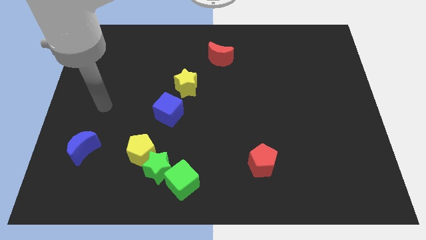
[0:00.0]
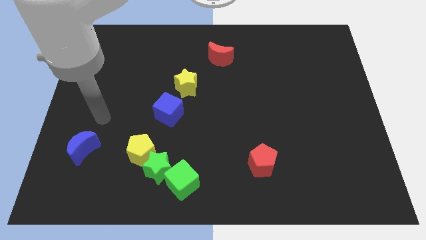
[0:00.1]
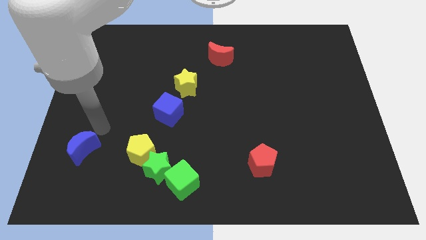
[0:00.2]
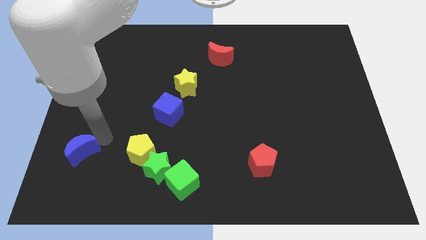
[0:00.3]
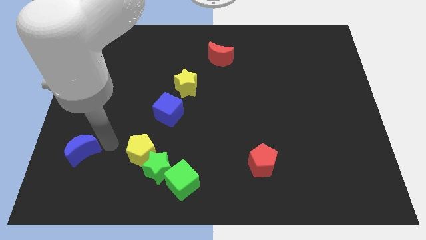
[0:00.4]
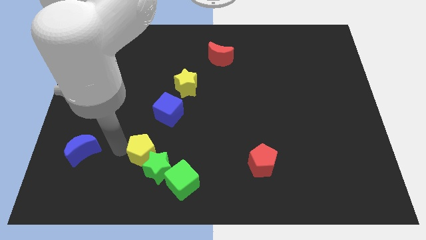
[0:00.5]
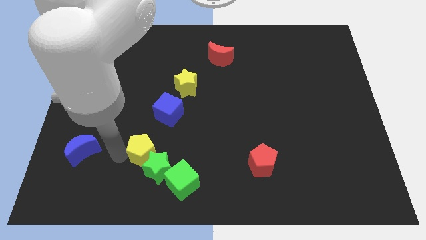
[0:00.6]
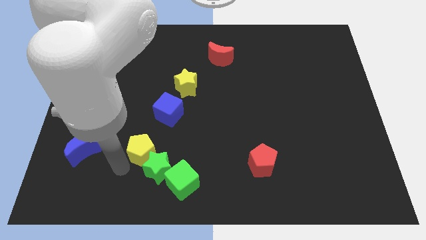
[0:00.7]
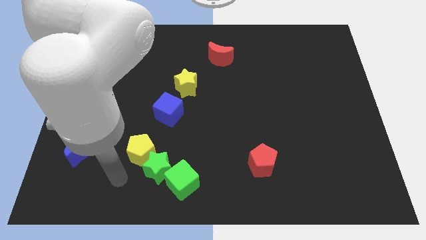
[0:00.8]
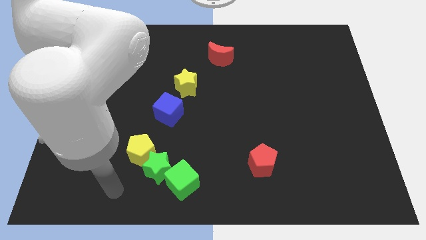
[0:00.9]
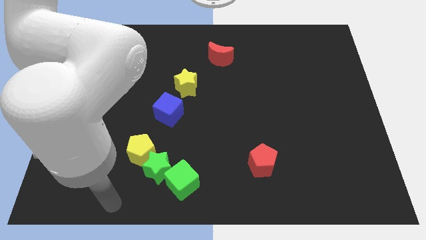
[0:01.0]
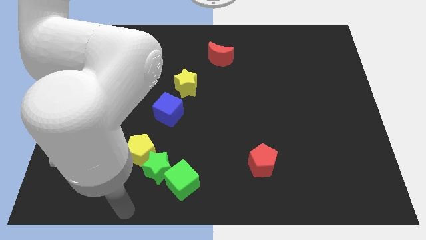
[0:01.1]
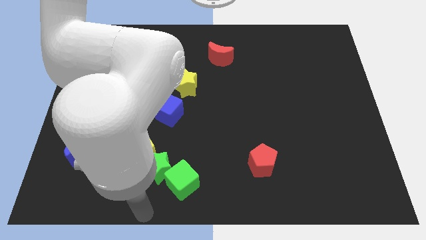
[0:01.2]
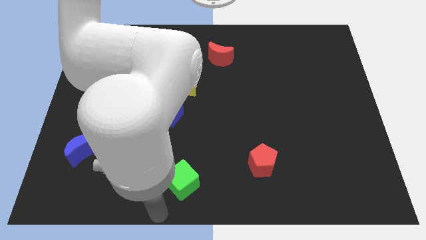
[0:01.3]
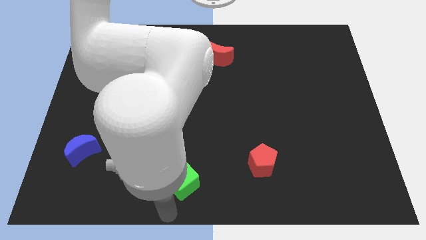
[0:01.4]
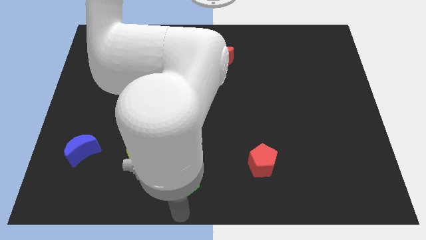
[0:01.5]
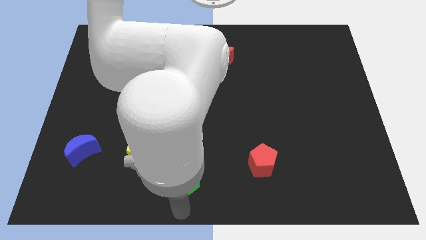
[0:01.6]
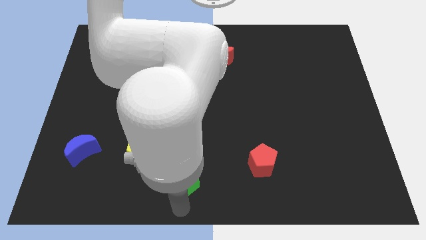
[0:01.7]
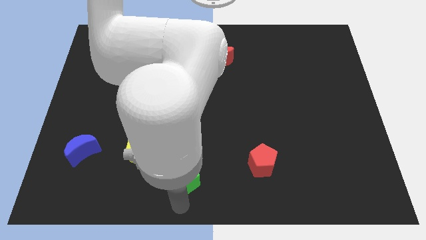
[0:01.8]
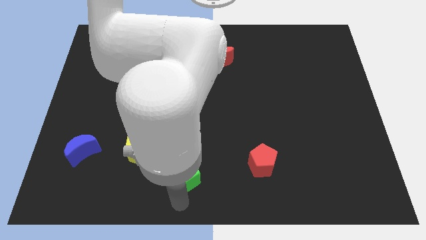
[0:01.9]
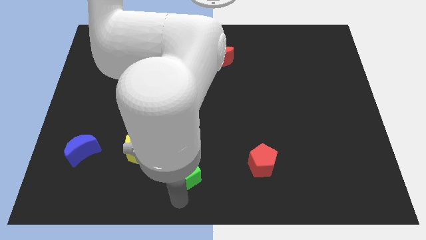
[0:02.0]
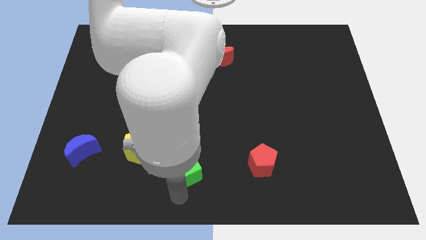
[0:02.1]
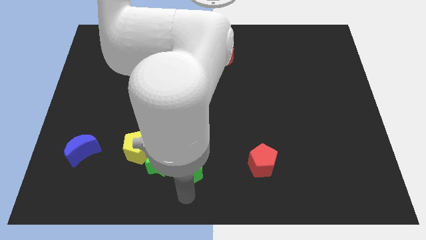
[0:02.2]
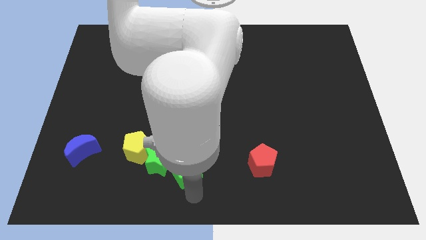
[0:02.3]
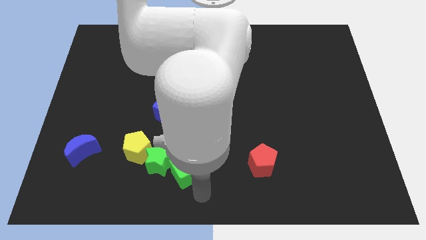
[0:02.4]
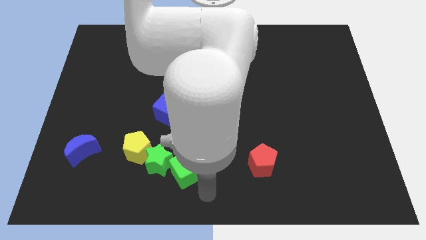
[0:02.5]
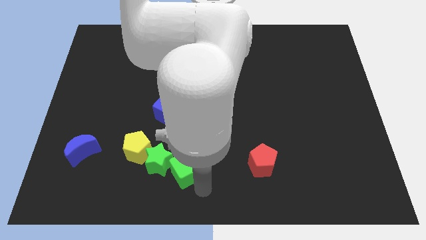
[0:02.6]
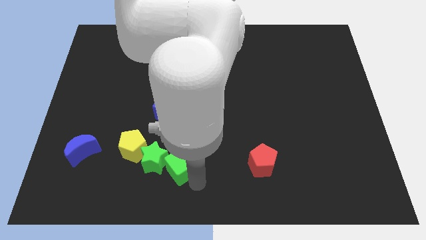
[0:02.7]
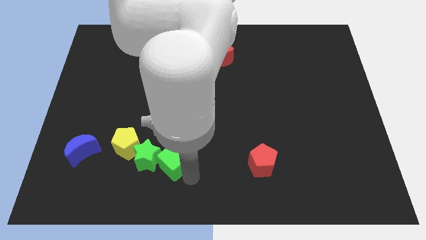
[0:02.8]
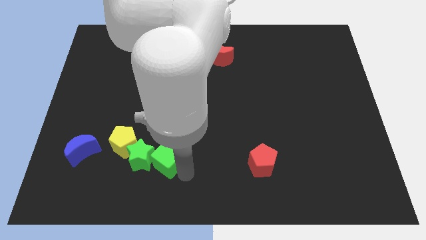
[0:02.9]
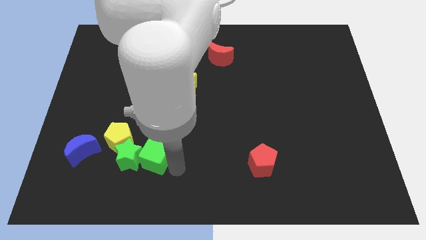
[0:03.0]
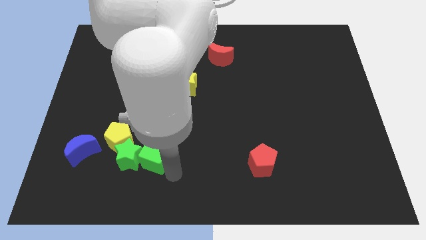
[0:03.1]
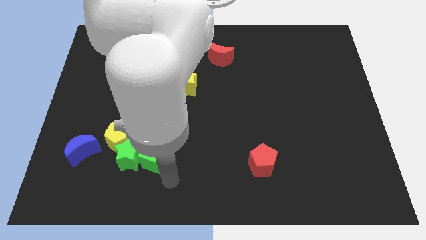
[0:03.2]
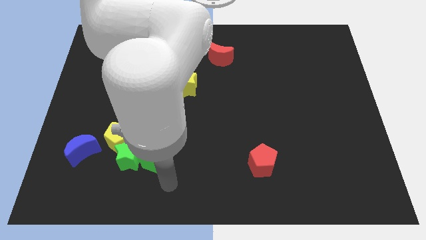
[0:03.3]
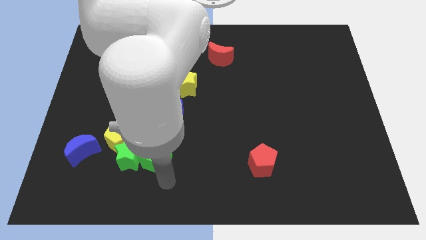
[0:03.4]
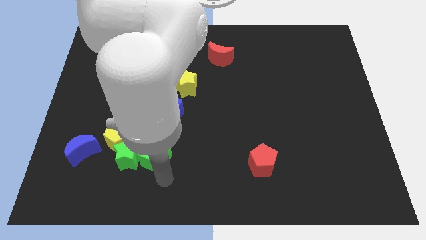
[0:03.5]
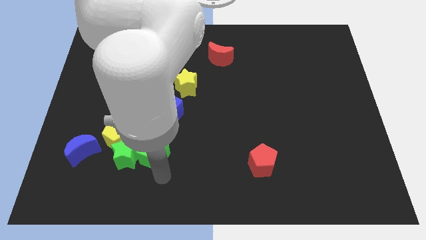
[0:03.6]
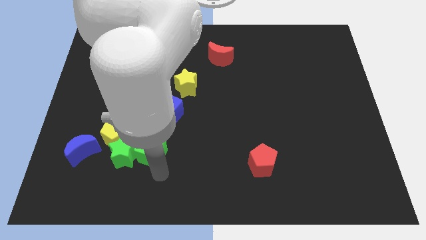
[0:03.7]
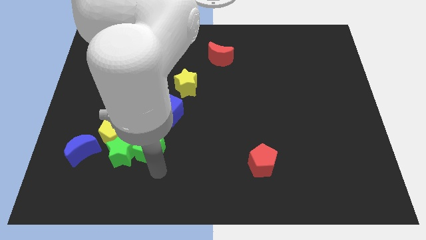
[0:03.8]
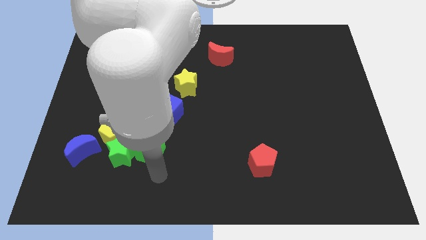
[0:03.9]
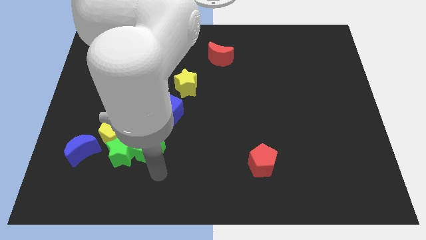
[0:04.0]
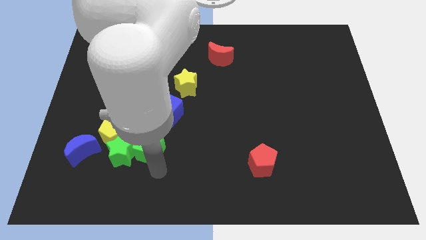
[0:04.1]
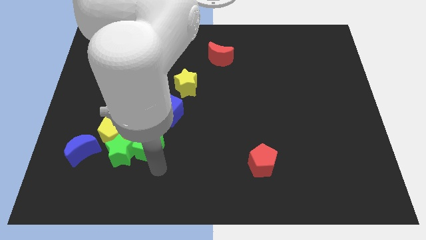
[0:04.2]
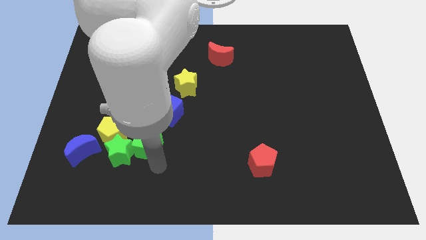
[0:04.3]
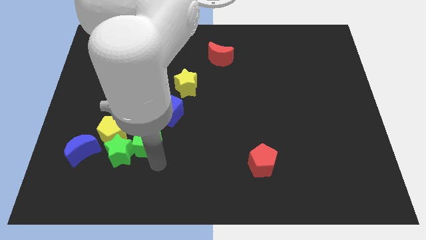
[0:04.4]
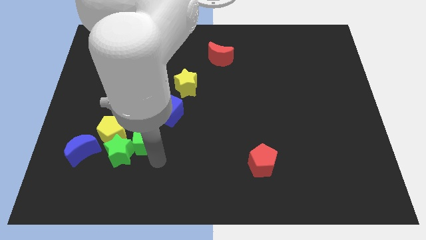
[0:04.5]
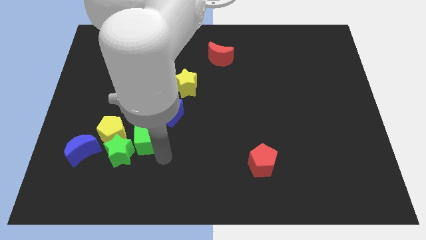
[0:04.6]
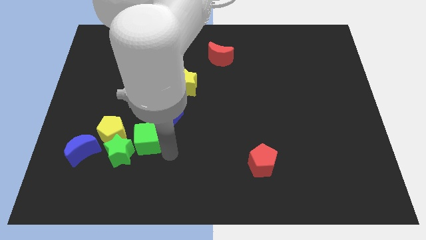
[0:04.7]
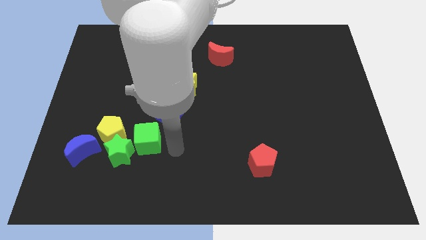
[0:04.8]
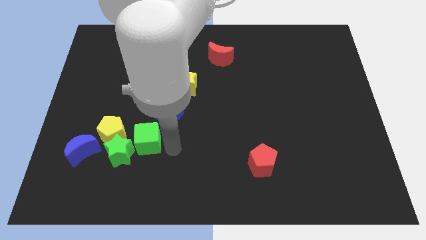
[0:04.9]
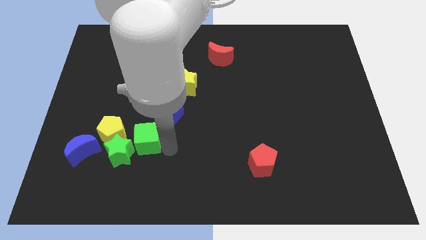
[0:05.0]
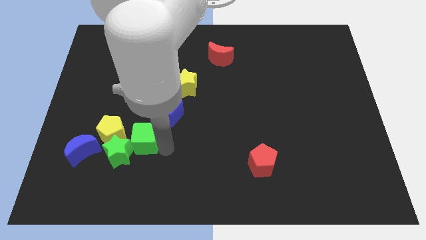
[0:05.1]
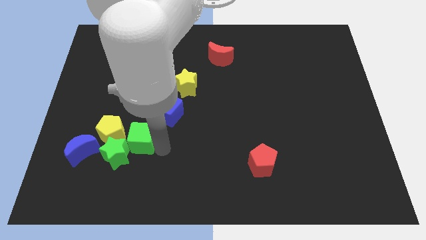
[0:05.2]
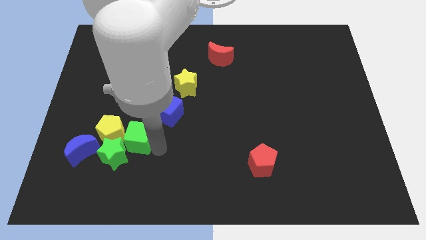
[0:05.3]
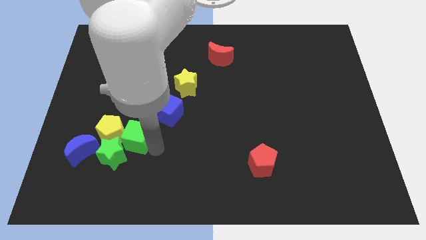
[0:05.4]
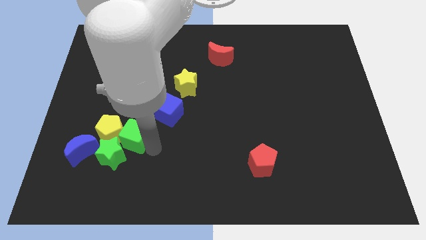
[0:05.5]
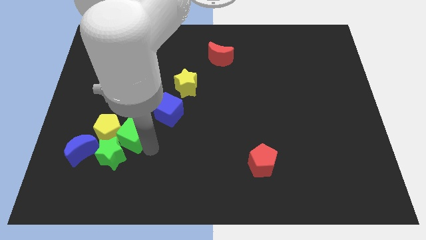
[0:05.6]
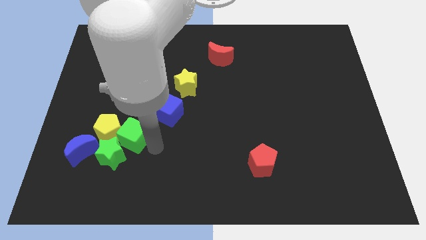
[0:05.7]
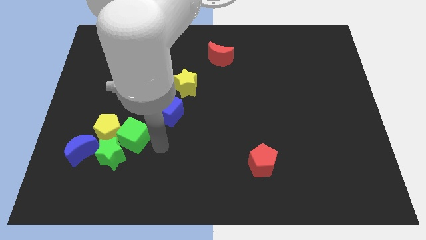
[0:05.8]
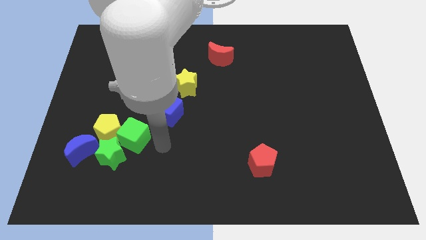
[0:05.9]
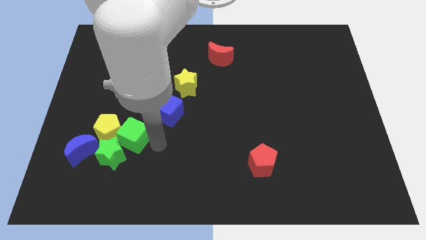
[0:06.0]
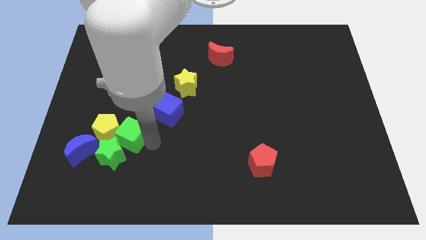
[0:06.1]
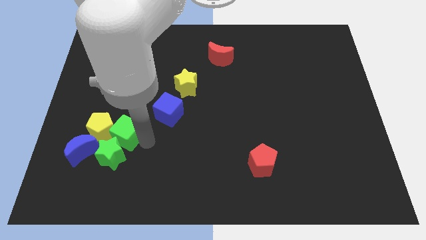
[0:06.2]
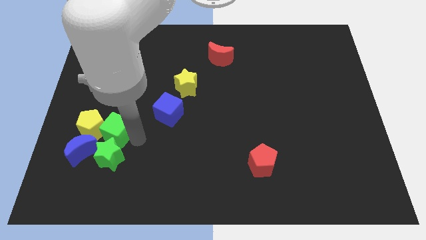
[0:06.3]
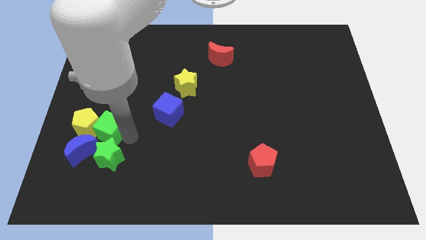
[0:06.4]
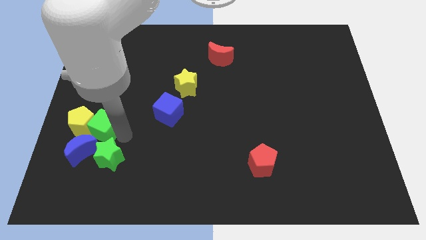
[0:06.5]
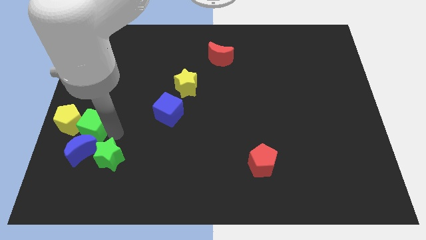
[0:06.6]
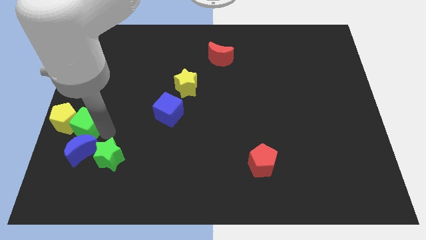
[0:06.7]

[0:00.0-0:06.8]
move the green cube to the left side of the board
